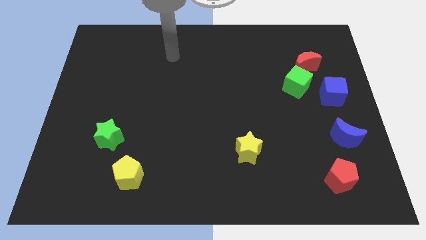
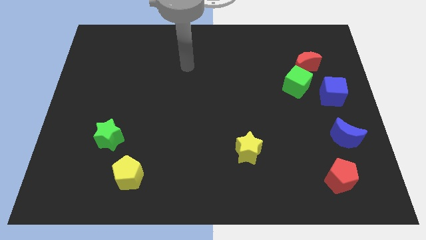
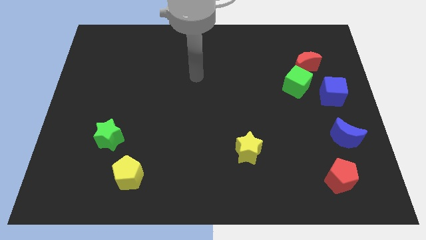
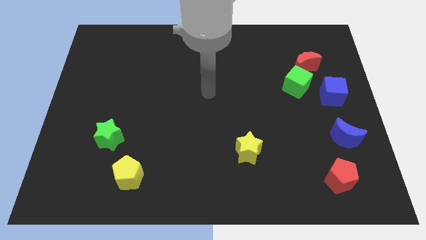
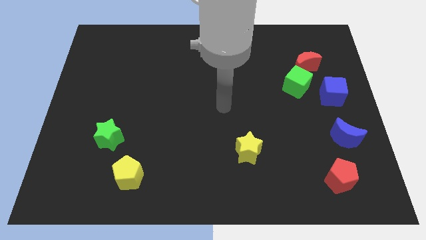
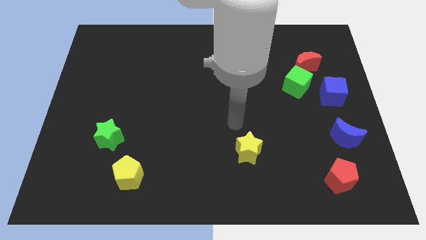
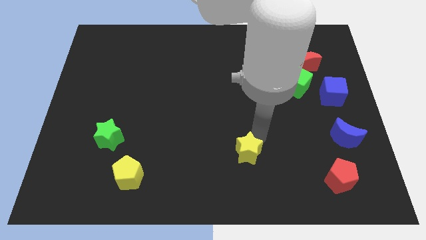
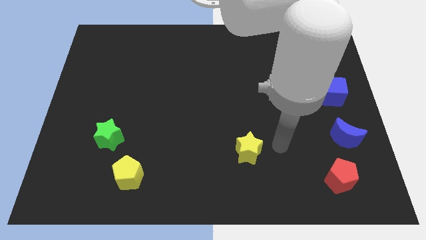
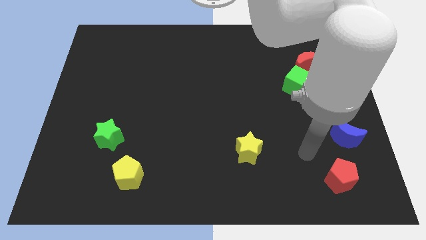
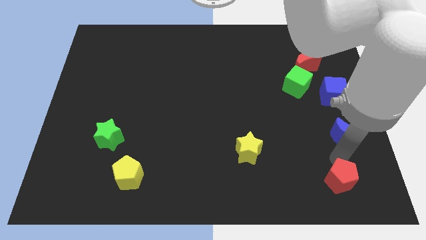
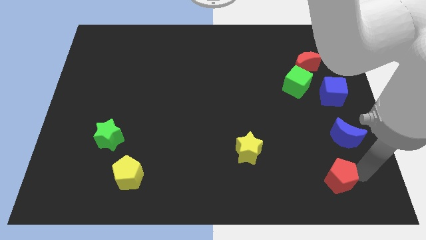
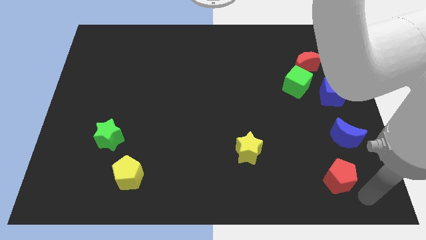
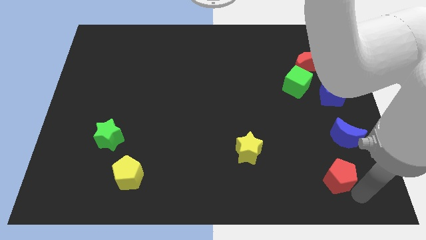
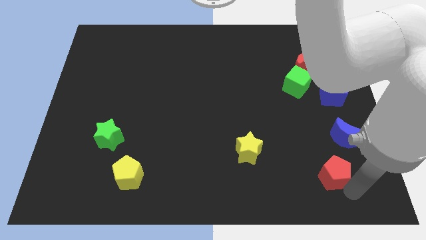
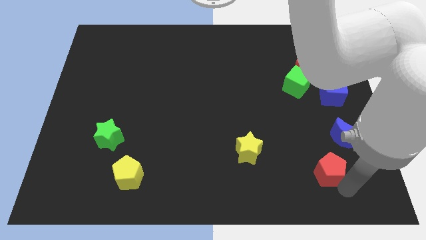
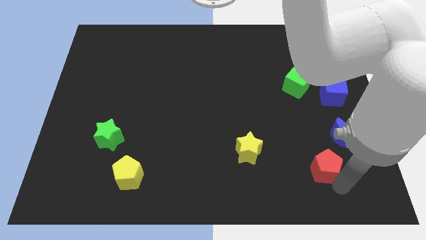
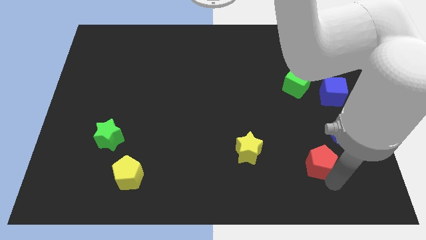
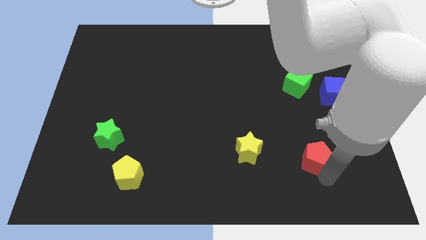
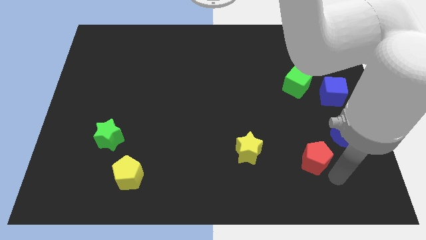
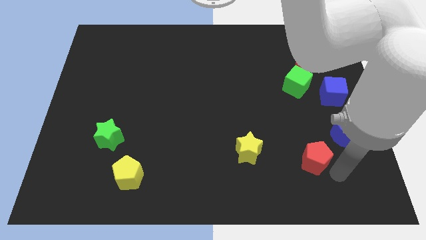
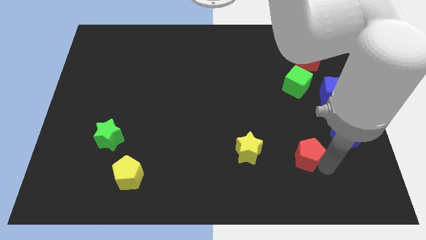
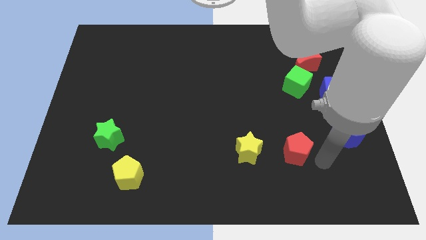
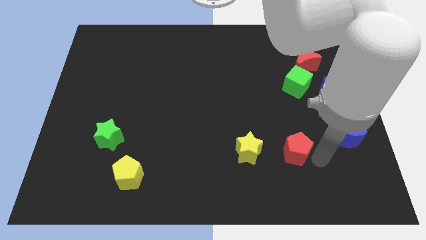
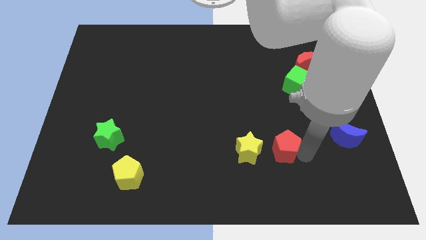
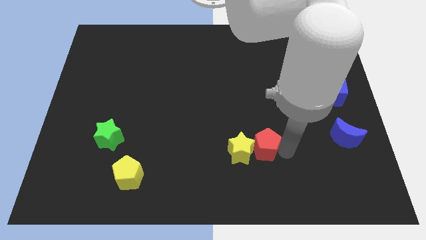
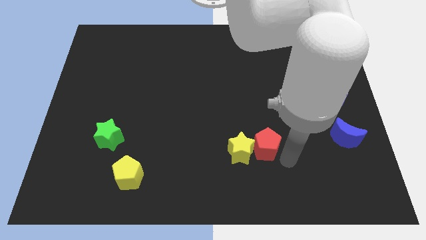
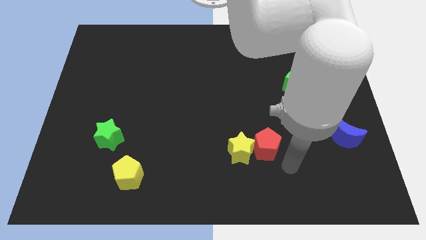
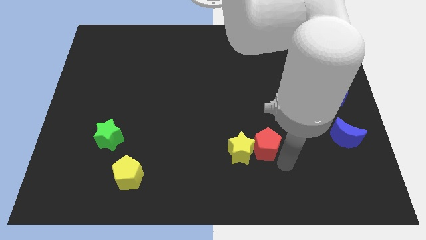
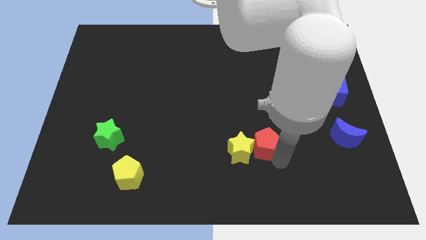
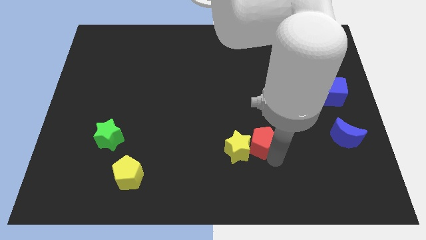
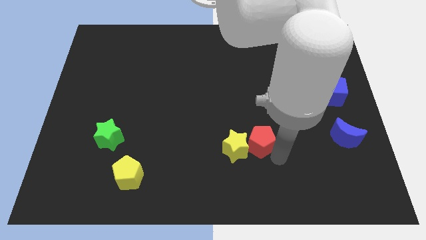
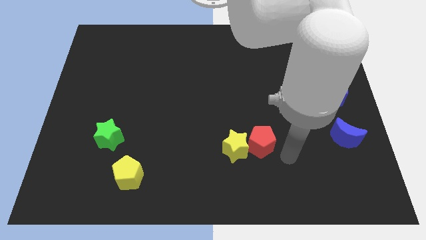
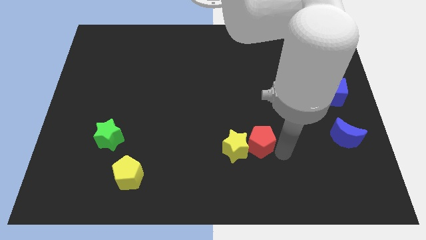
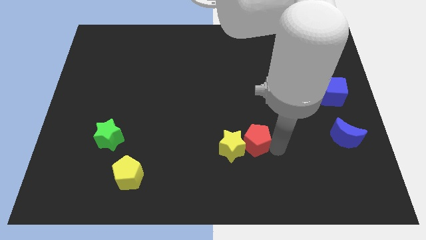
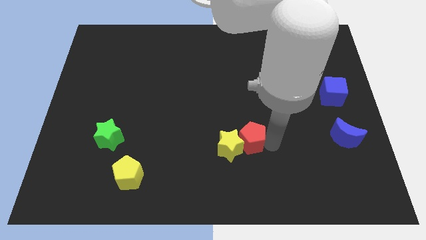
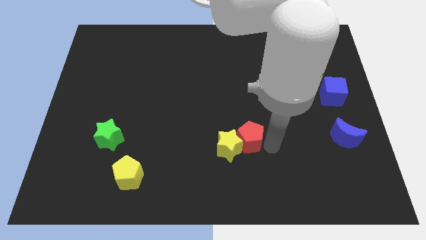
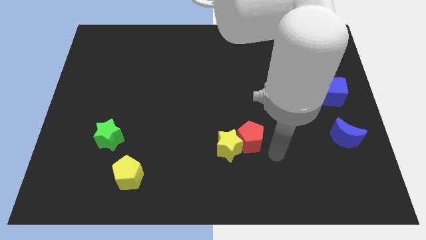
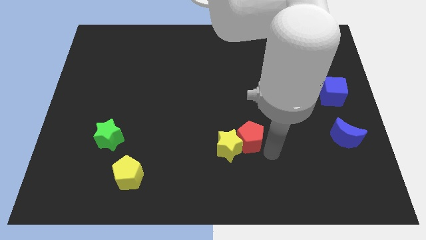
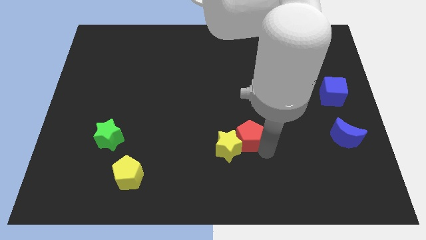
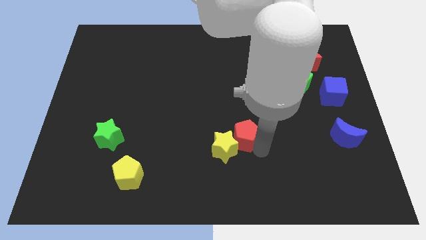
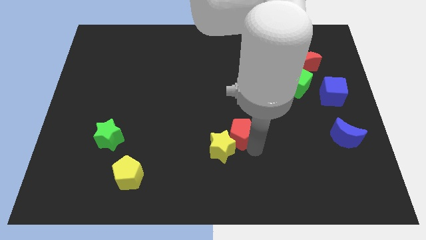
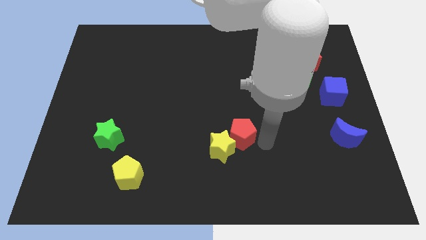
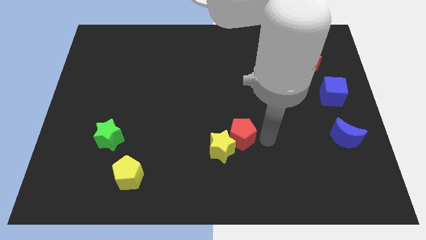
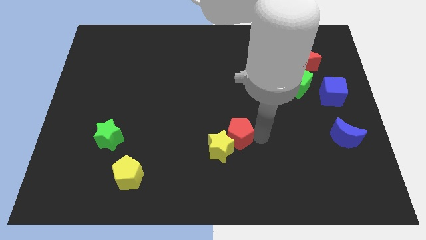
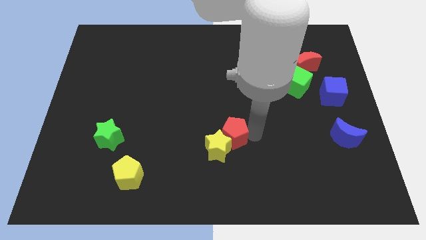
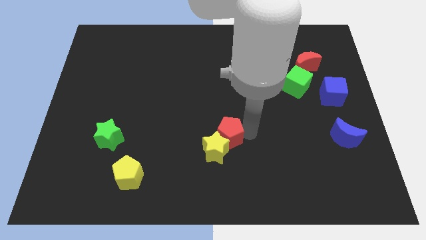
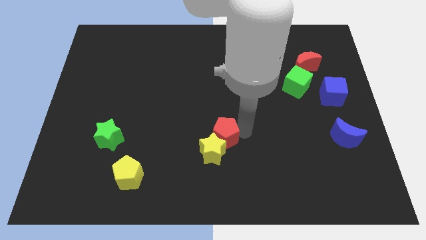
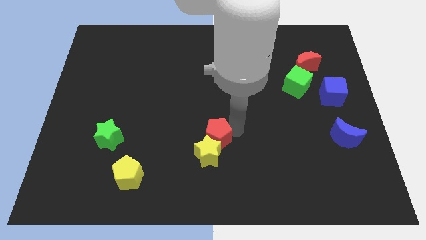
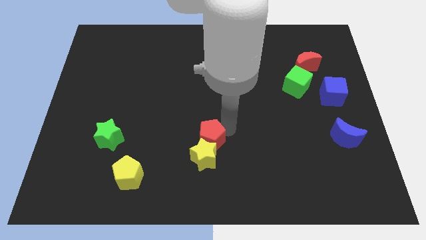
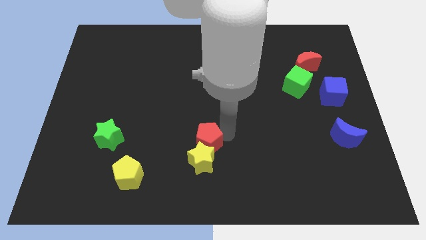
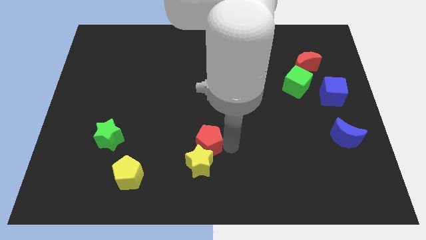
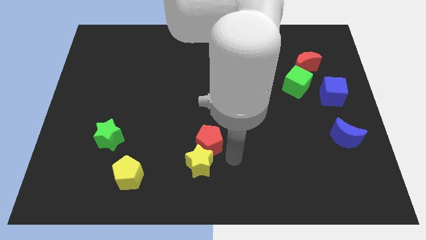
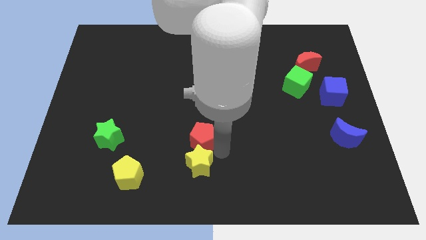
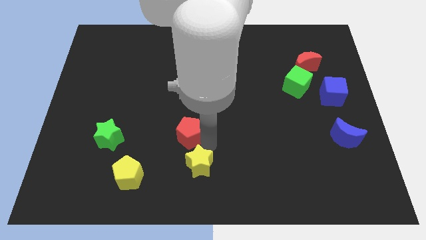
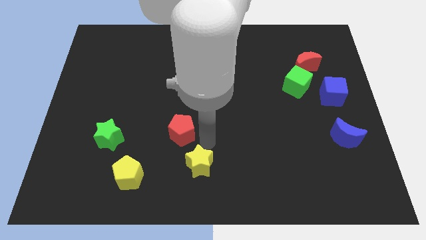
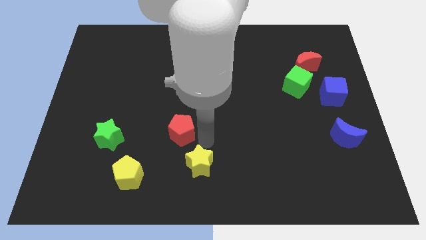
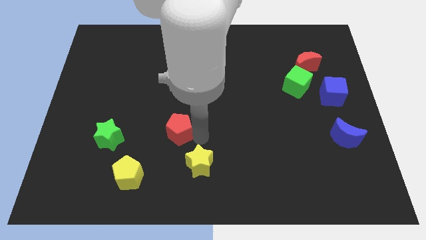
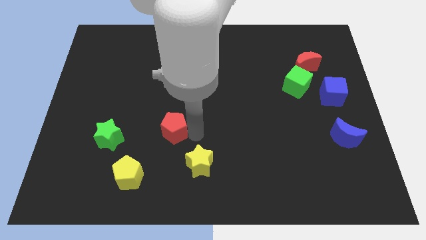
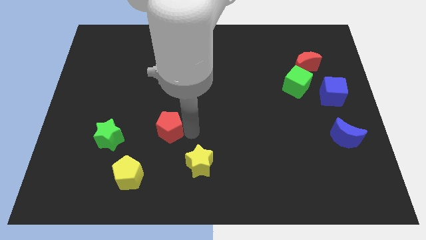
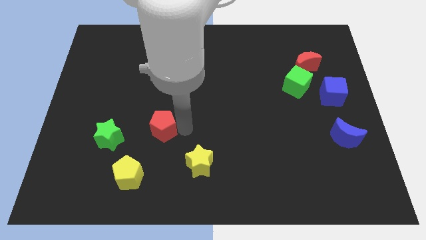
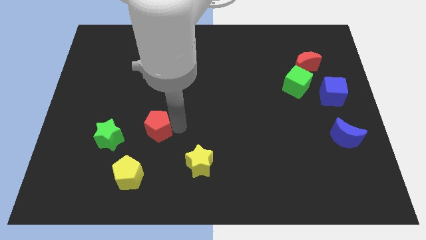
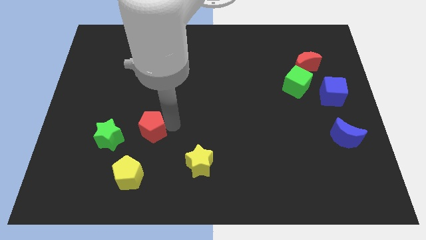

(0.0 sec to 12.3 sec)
push the red pentagon to the top right side of the green star
